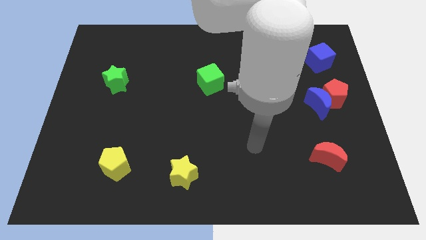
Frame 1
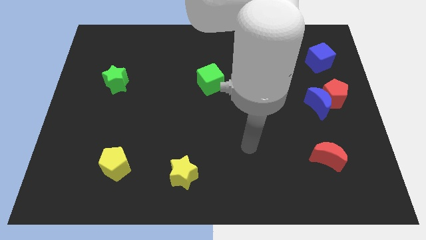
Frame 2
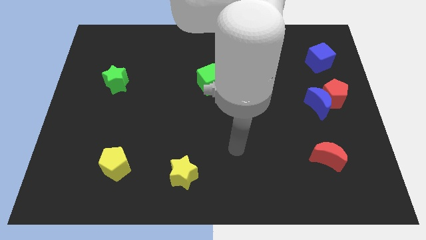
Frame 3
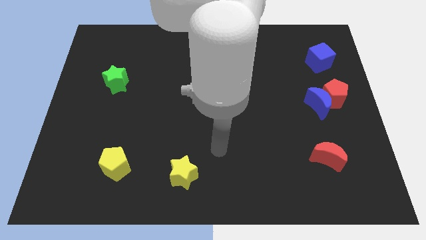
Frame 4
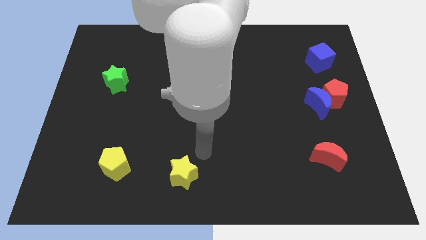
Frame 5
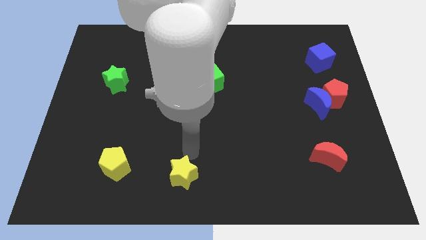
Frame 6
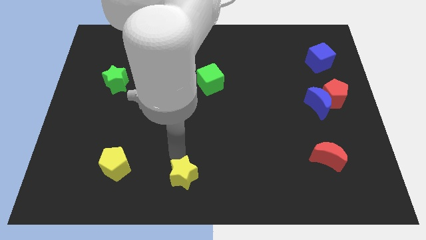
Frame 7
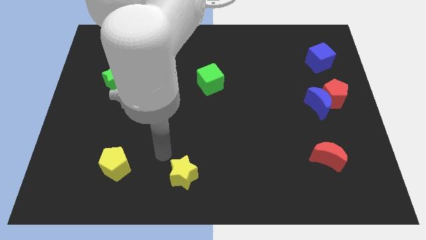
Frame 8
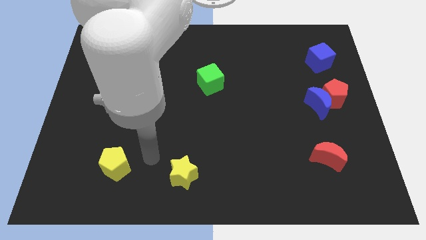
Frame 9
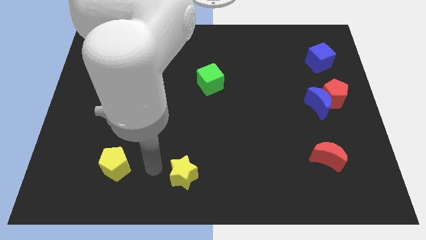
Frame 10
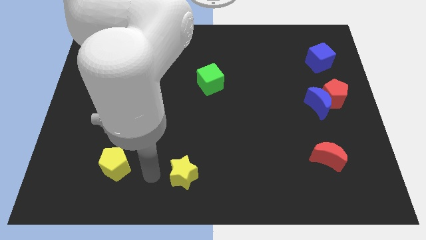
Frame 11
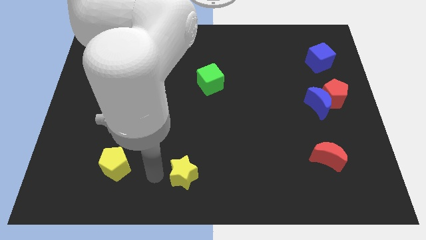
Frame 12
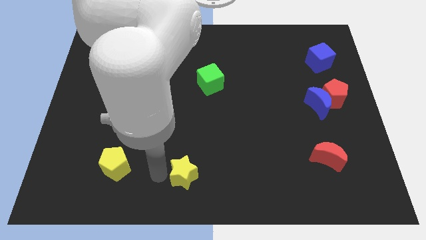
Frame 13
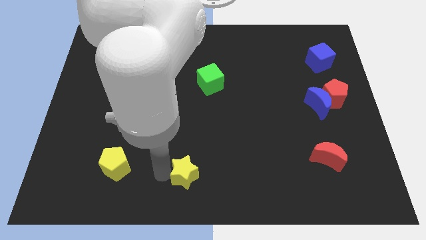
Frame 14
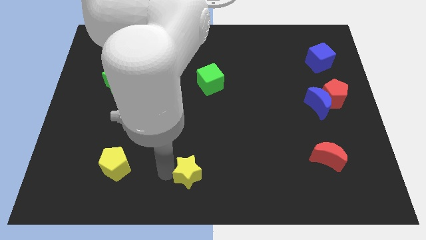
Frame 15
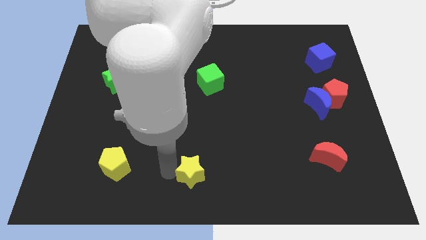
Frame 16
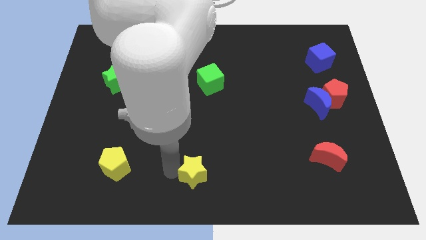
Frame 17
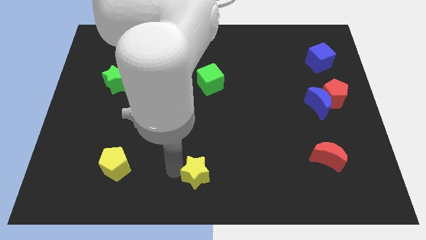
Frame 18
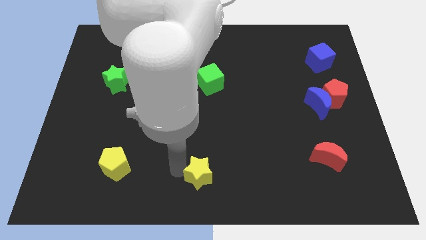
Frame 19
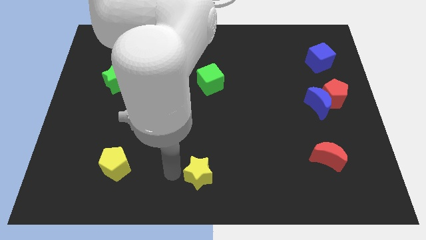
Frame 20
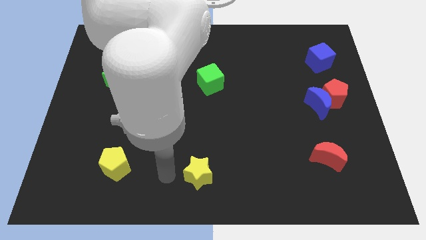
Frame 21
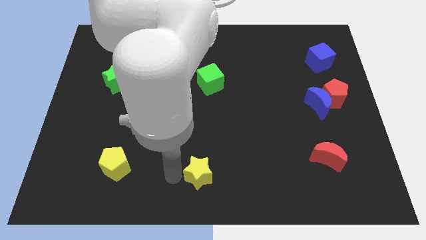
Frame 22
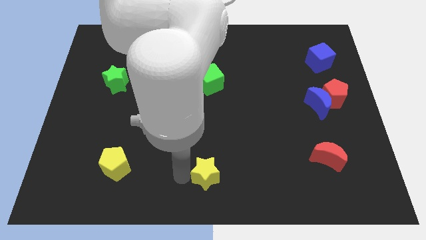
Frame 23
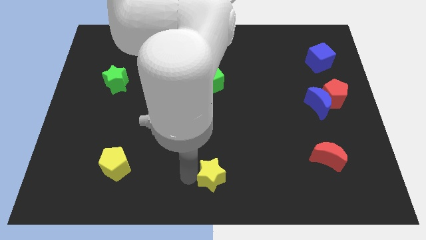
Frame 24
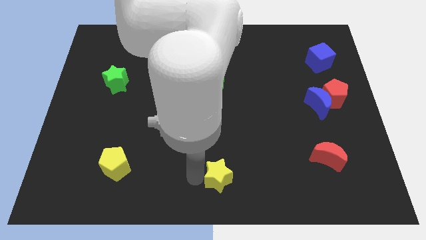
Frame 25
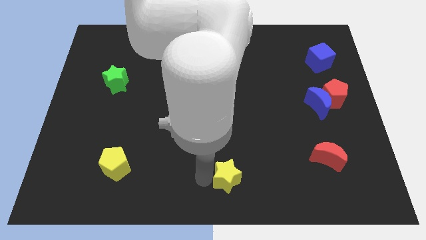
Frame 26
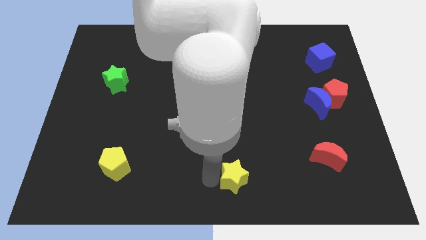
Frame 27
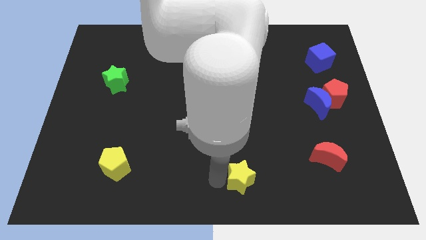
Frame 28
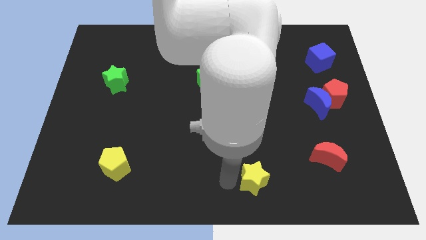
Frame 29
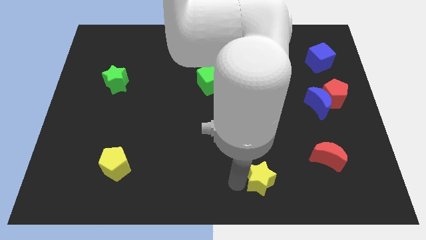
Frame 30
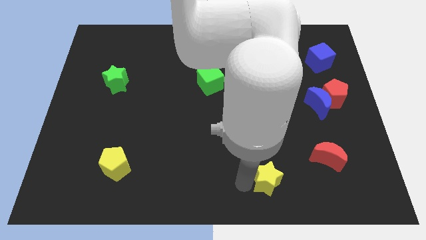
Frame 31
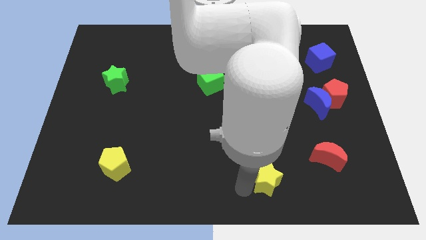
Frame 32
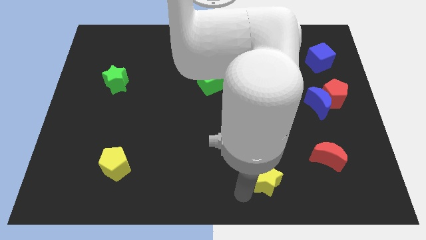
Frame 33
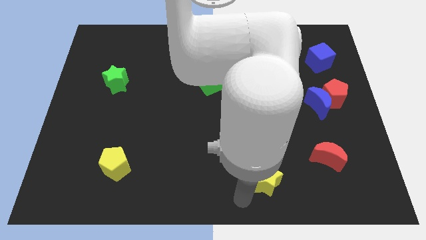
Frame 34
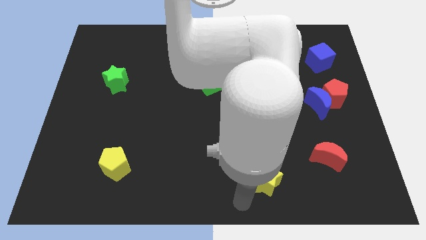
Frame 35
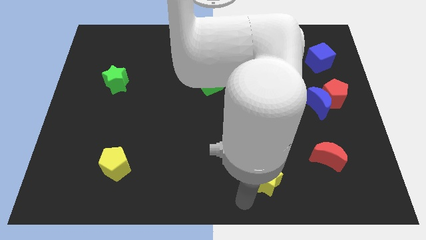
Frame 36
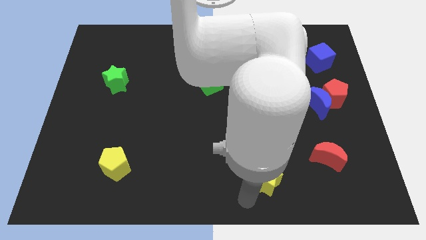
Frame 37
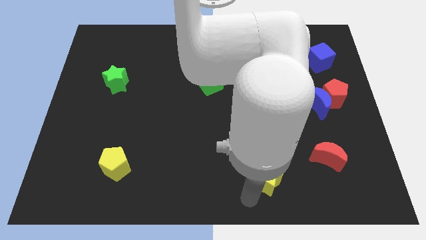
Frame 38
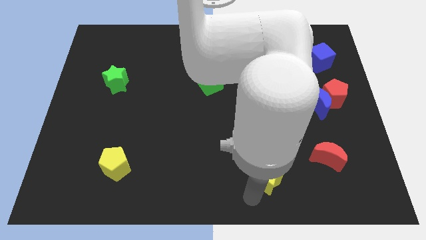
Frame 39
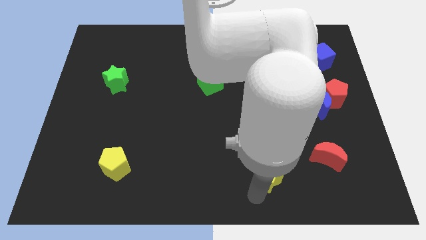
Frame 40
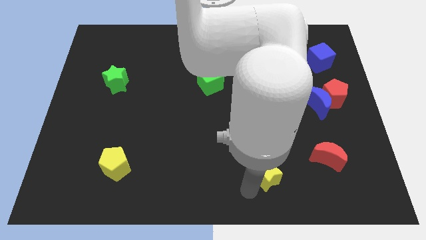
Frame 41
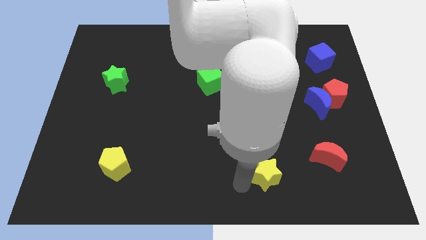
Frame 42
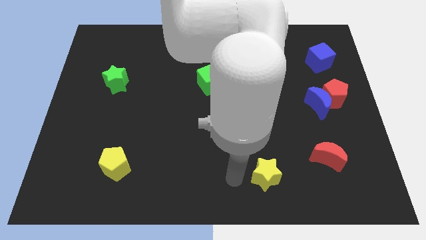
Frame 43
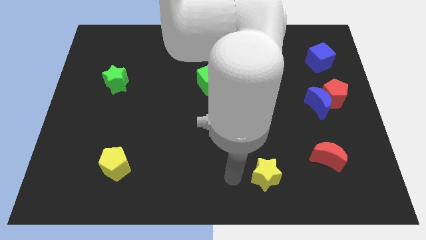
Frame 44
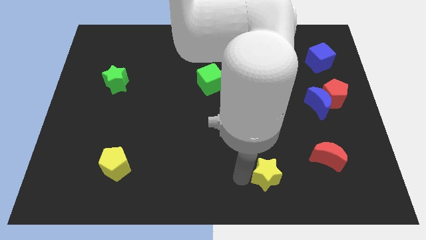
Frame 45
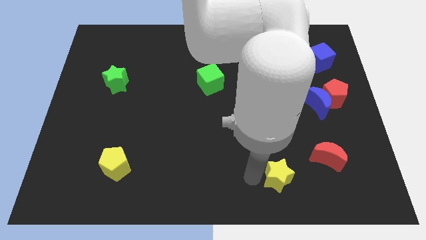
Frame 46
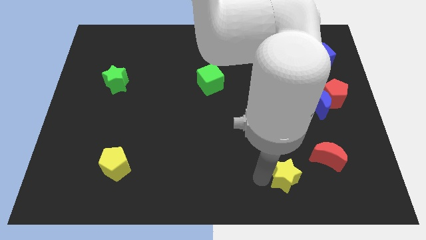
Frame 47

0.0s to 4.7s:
slide the yellow star to the right

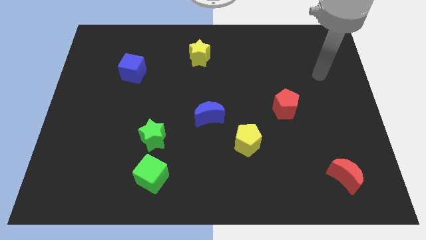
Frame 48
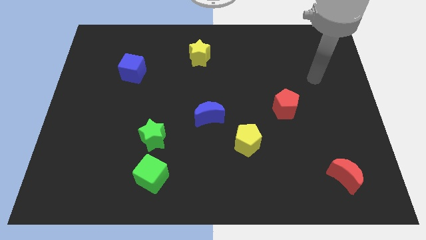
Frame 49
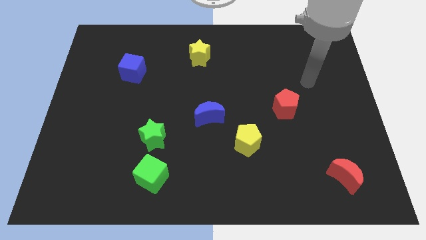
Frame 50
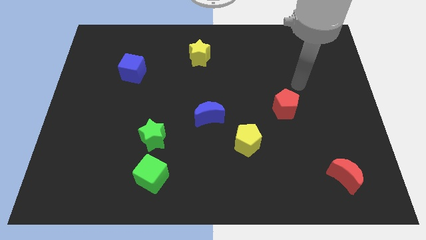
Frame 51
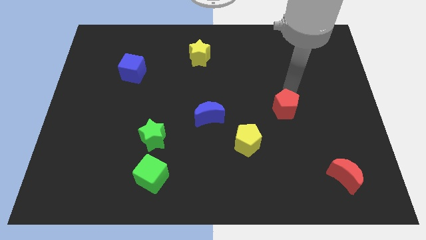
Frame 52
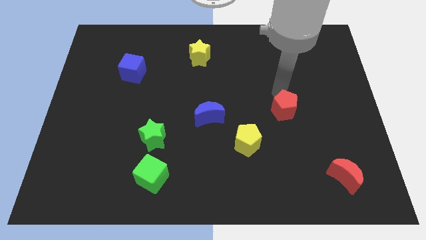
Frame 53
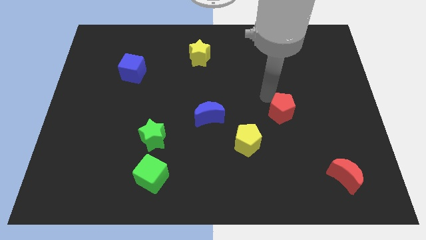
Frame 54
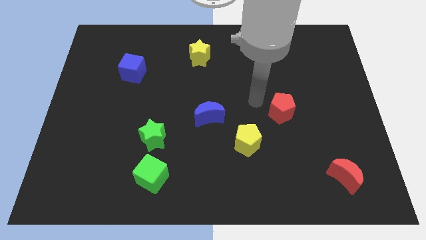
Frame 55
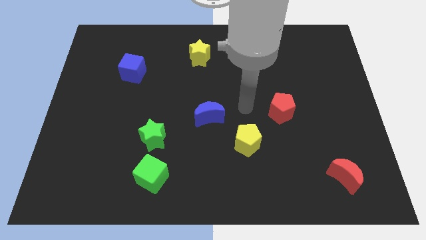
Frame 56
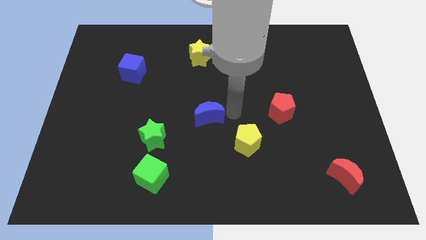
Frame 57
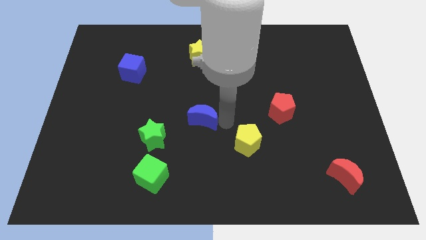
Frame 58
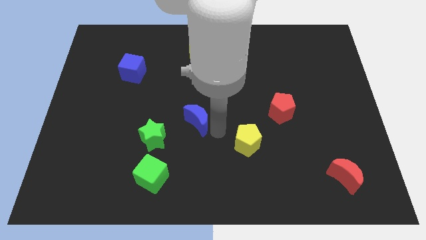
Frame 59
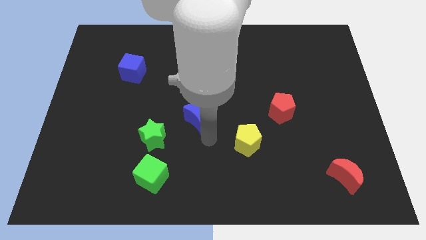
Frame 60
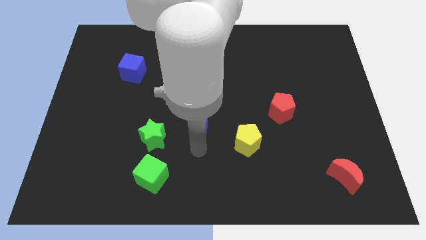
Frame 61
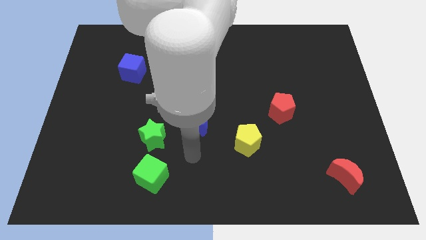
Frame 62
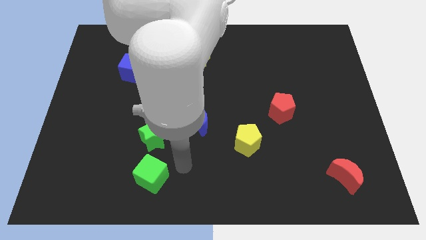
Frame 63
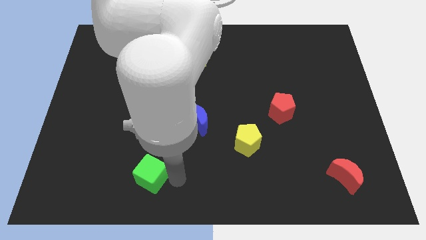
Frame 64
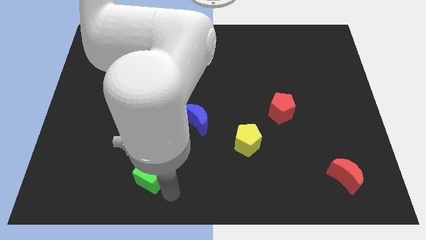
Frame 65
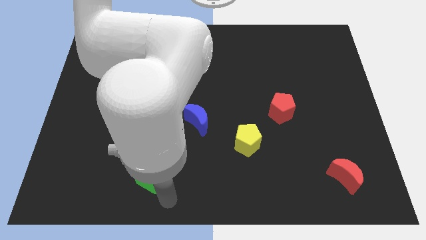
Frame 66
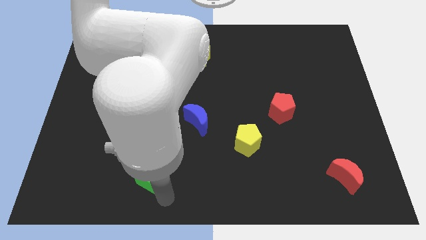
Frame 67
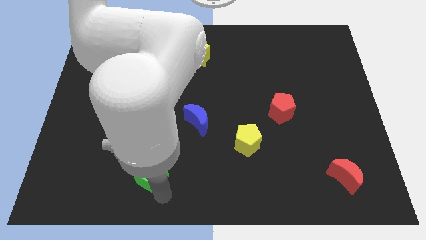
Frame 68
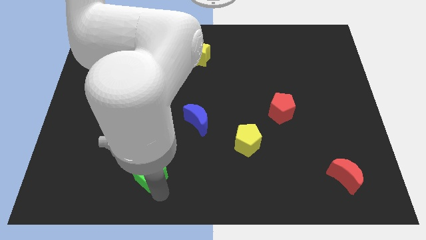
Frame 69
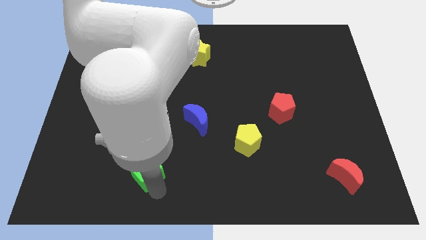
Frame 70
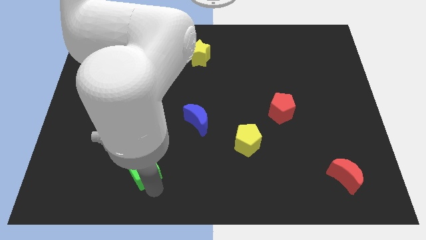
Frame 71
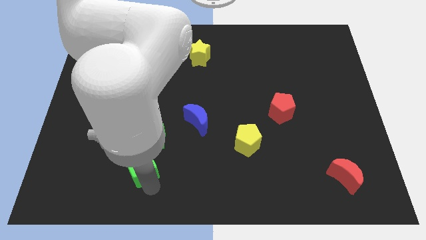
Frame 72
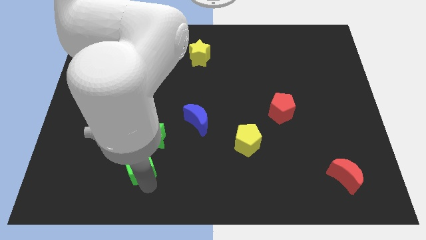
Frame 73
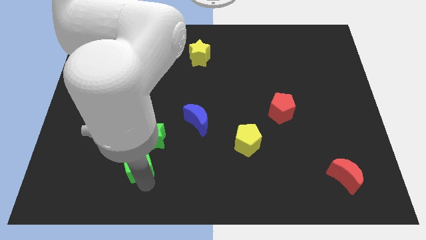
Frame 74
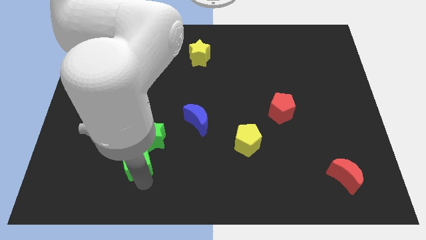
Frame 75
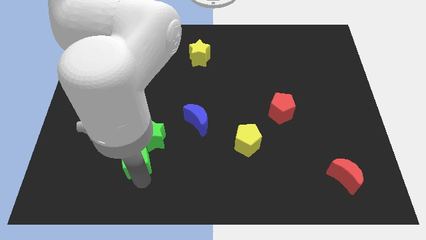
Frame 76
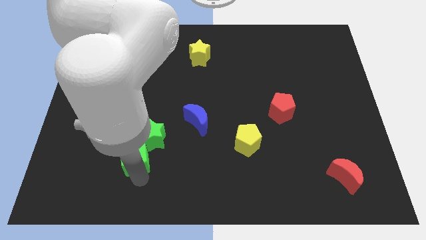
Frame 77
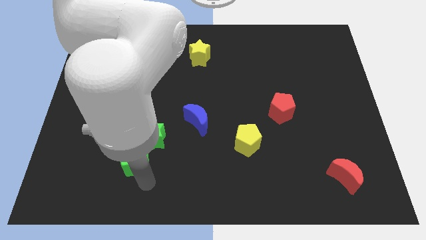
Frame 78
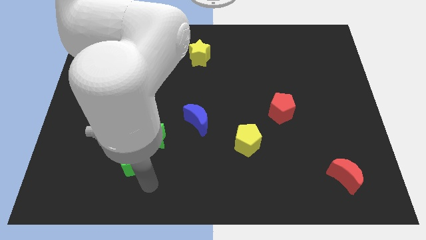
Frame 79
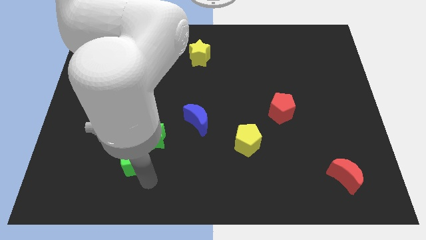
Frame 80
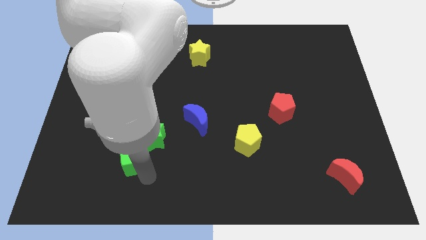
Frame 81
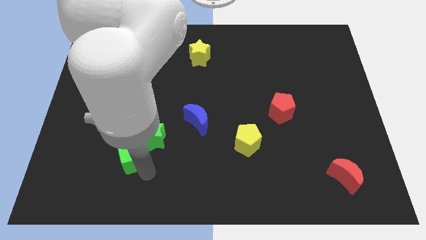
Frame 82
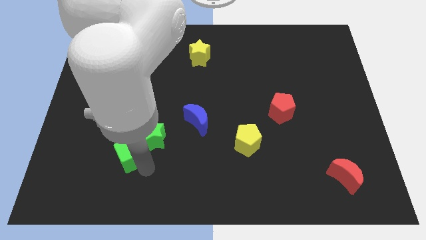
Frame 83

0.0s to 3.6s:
push the green cube diagonally up and left somewhat
